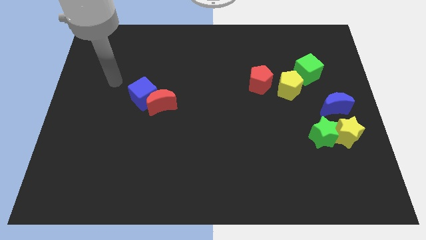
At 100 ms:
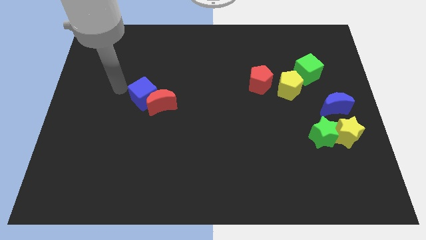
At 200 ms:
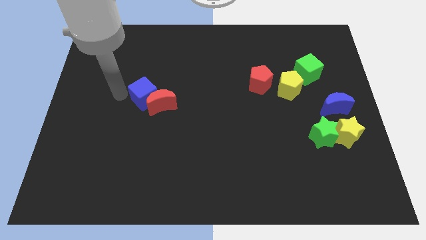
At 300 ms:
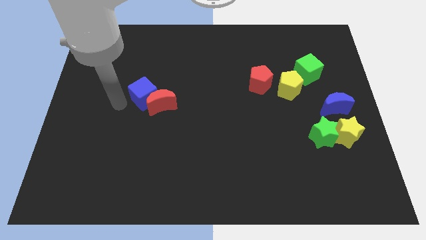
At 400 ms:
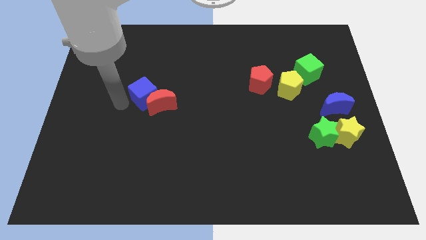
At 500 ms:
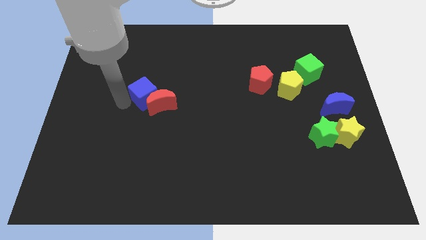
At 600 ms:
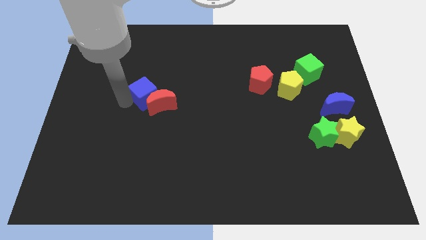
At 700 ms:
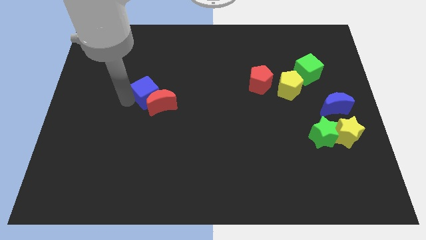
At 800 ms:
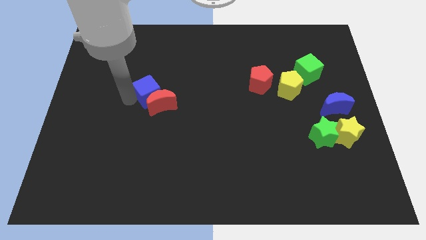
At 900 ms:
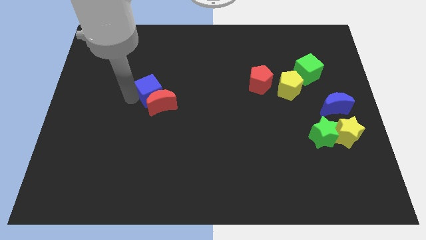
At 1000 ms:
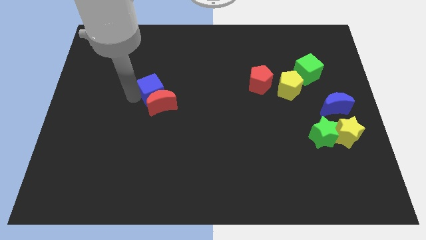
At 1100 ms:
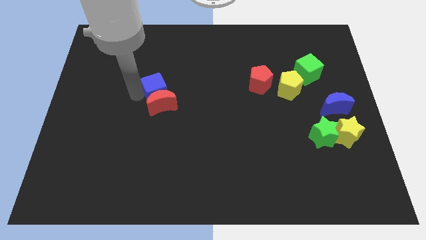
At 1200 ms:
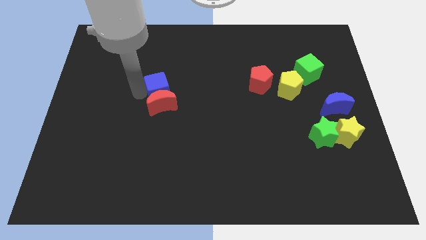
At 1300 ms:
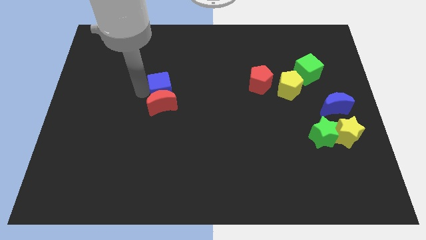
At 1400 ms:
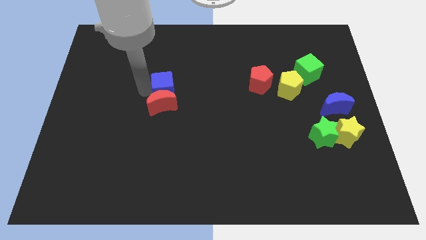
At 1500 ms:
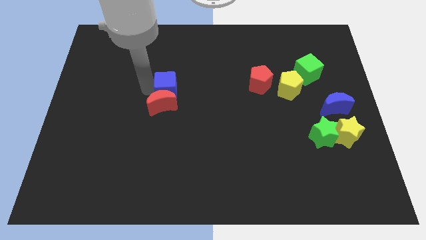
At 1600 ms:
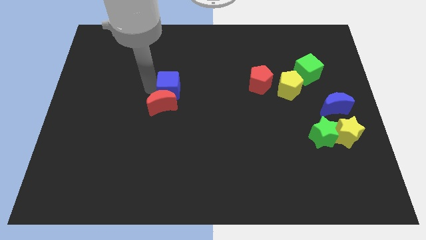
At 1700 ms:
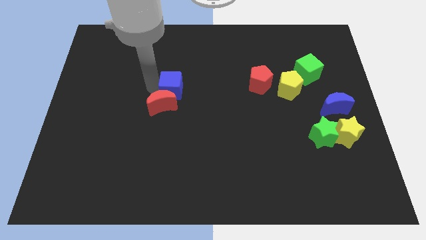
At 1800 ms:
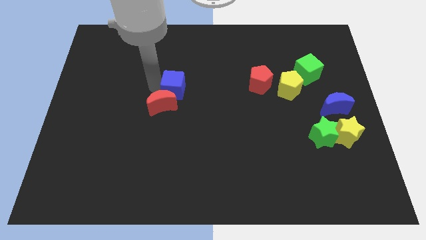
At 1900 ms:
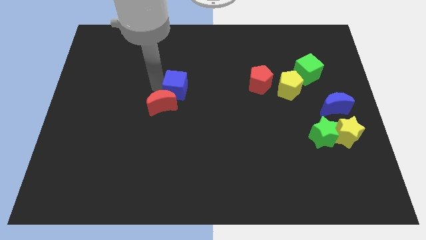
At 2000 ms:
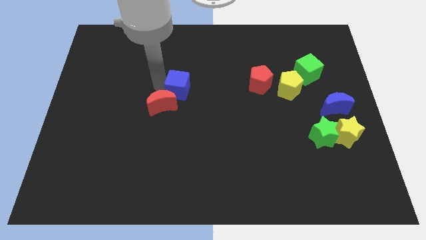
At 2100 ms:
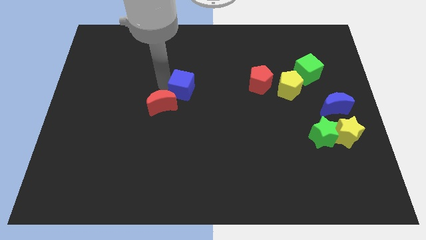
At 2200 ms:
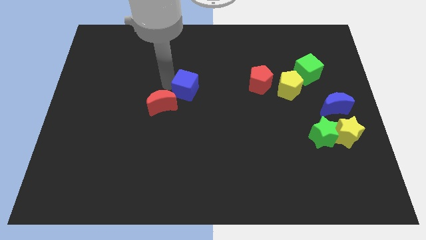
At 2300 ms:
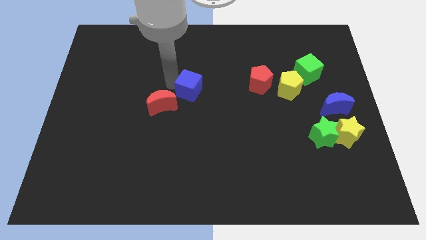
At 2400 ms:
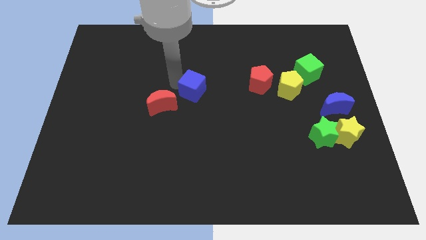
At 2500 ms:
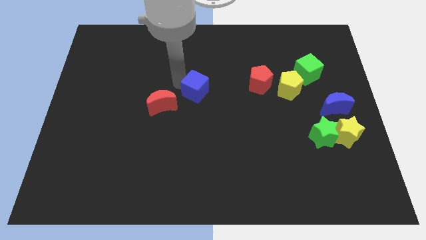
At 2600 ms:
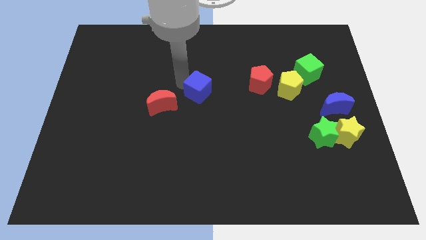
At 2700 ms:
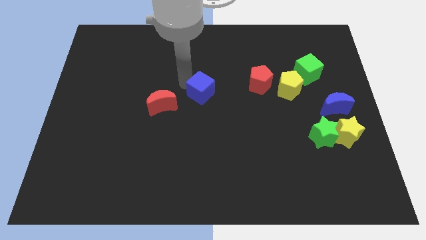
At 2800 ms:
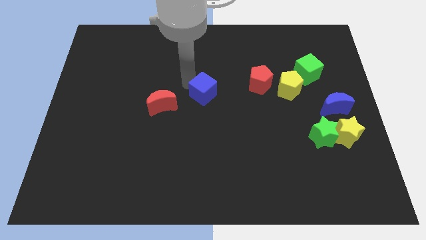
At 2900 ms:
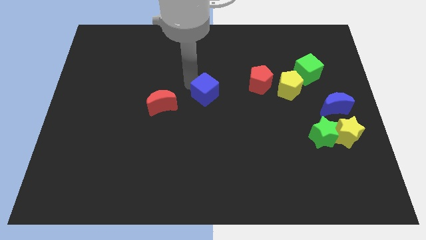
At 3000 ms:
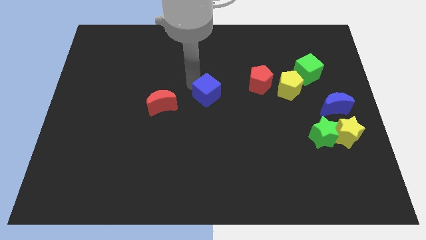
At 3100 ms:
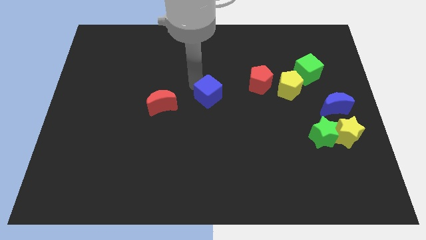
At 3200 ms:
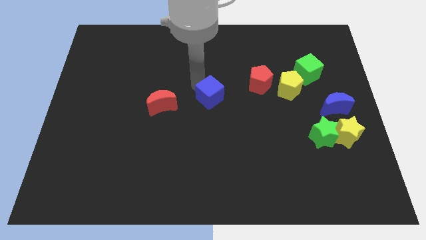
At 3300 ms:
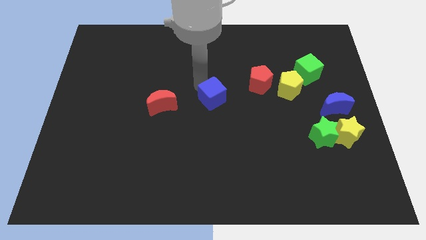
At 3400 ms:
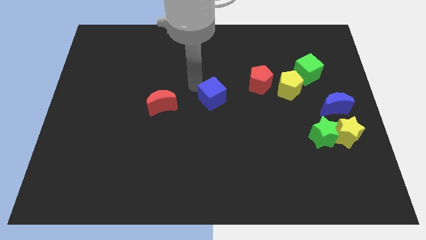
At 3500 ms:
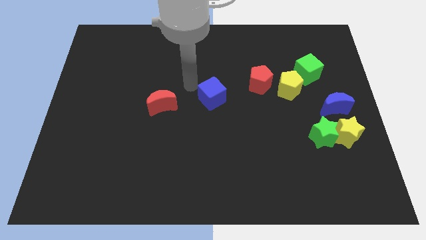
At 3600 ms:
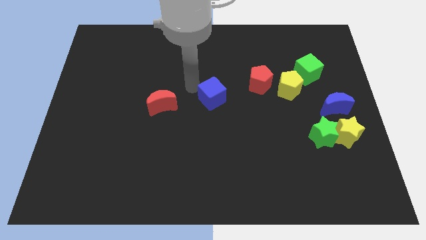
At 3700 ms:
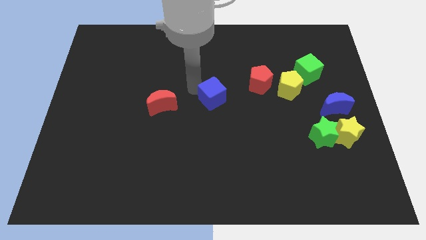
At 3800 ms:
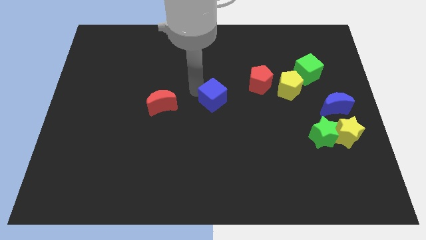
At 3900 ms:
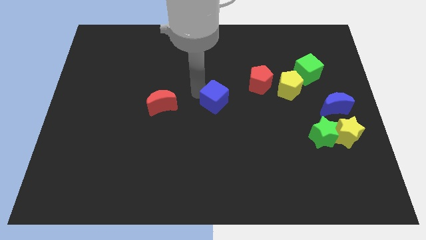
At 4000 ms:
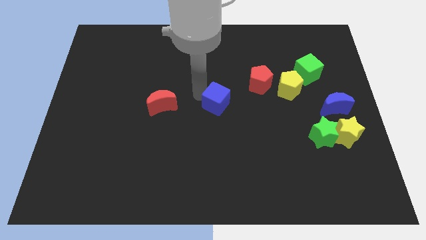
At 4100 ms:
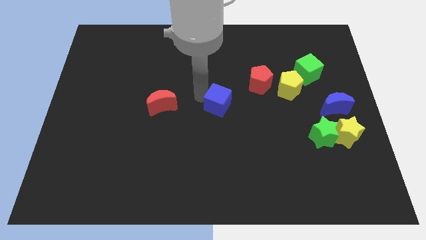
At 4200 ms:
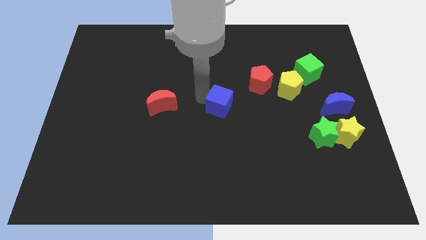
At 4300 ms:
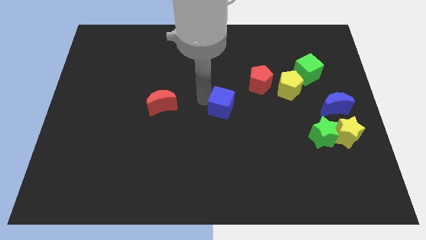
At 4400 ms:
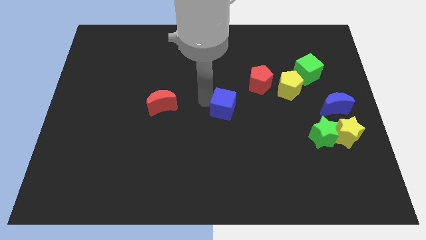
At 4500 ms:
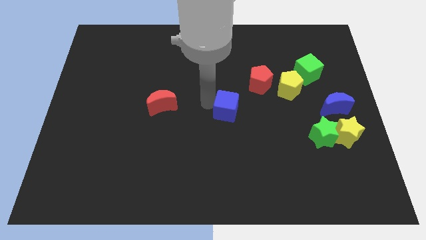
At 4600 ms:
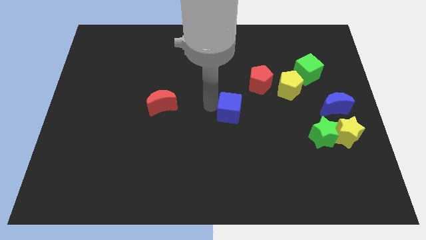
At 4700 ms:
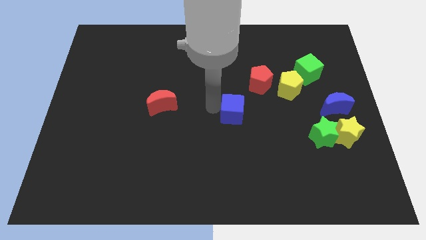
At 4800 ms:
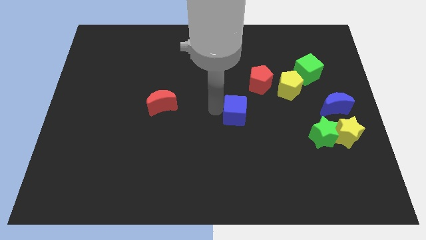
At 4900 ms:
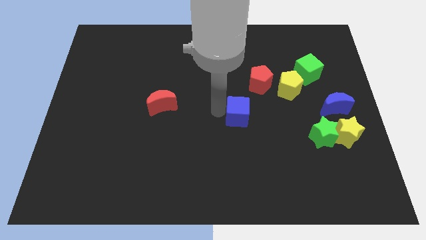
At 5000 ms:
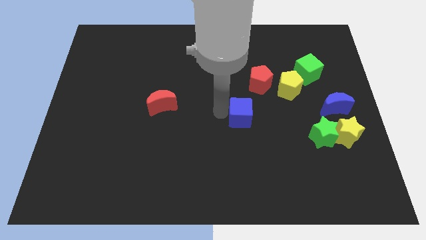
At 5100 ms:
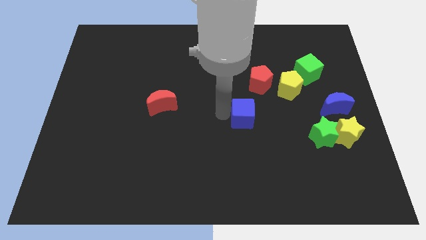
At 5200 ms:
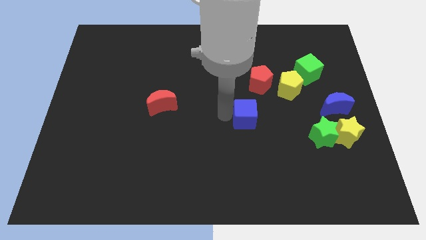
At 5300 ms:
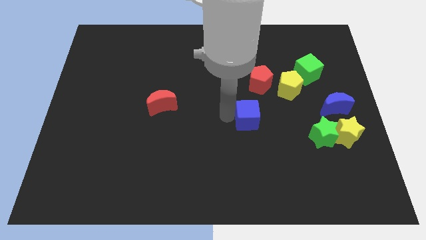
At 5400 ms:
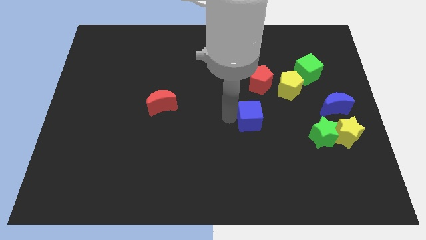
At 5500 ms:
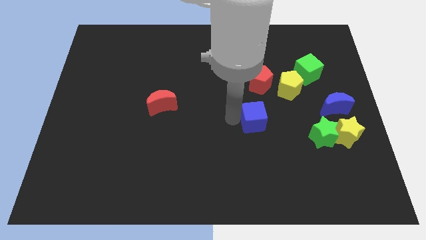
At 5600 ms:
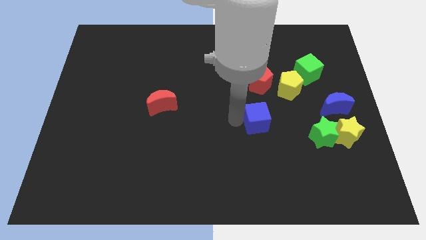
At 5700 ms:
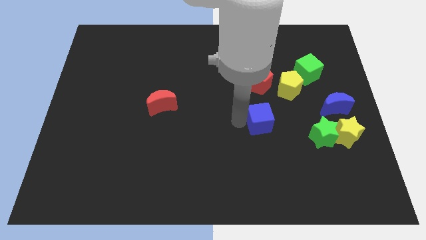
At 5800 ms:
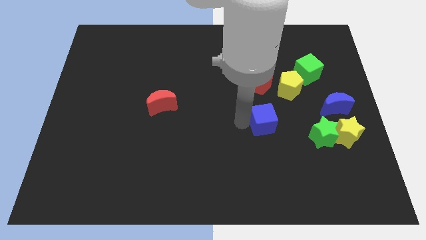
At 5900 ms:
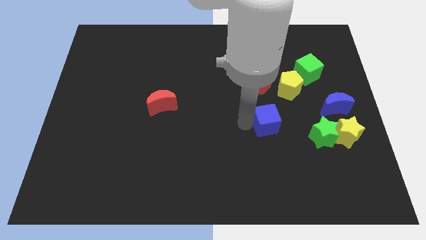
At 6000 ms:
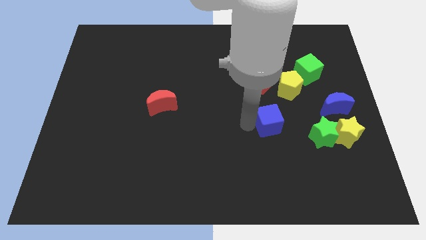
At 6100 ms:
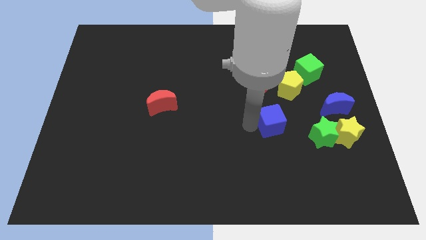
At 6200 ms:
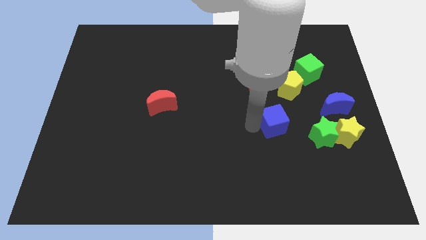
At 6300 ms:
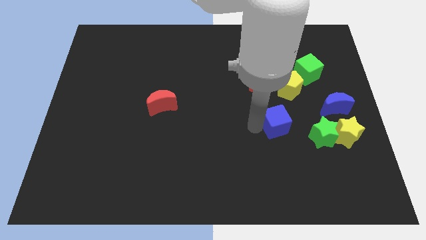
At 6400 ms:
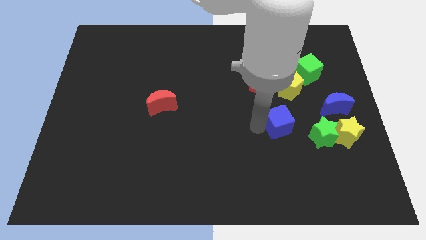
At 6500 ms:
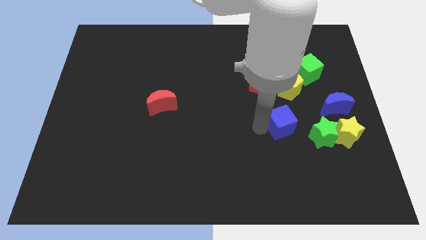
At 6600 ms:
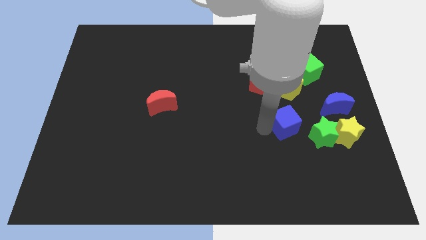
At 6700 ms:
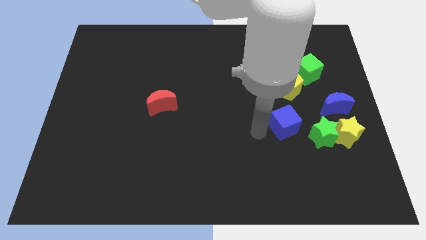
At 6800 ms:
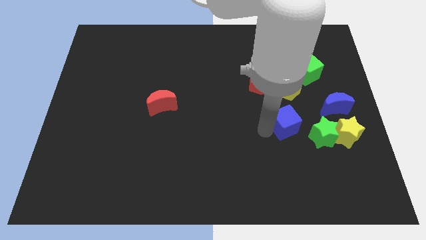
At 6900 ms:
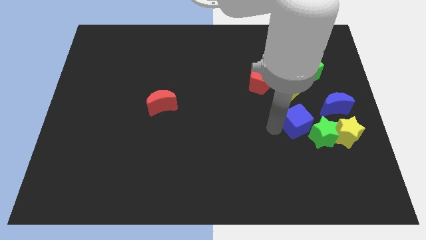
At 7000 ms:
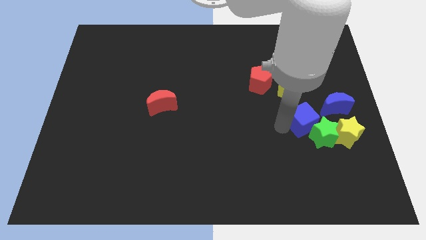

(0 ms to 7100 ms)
move the blue cube to the top left side of the yellow star

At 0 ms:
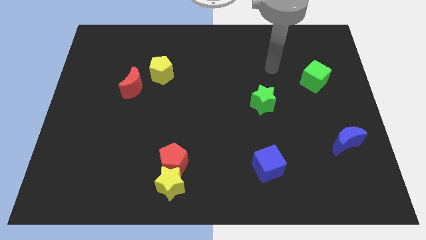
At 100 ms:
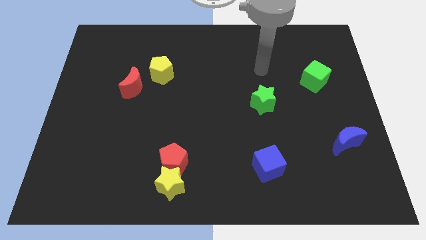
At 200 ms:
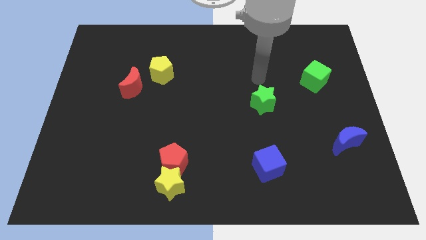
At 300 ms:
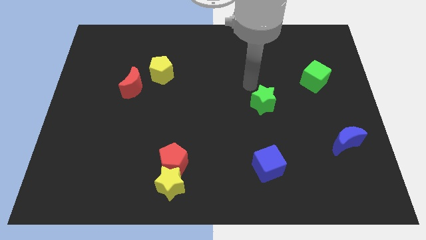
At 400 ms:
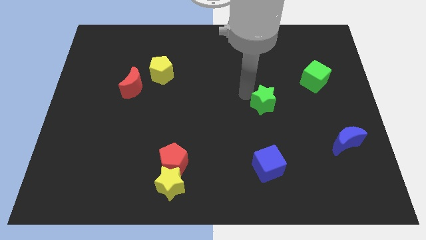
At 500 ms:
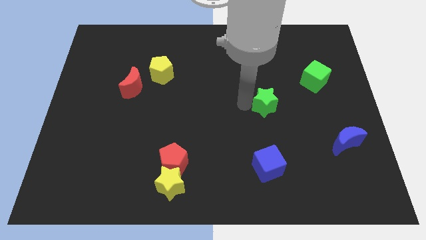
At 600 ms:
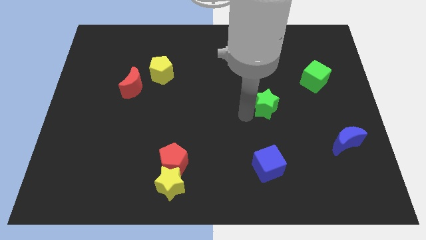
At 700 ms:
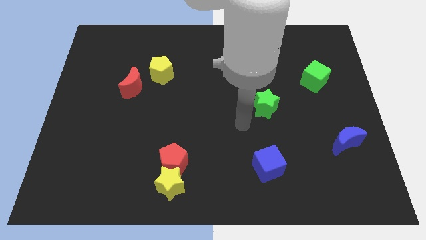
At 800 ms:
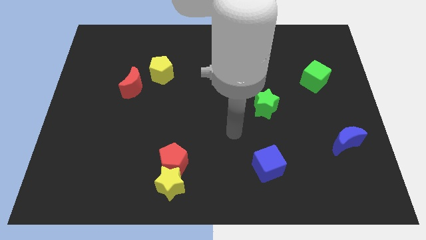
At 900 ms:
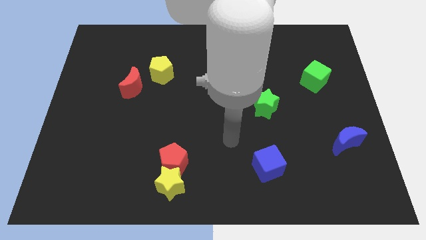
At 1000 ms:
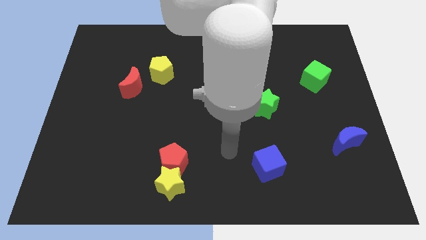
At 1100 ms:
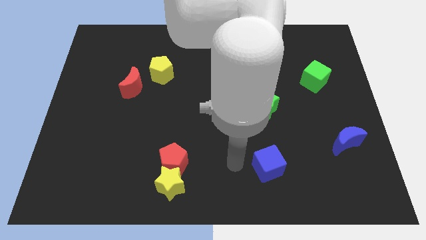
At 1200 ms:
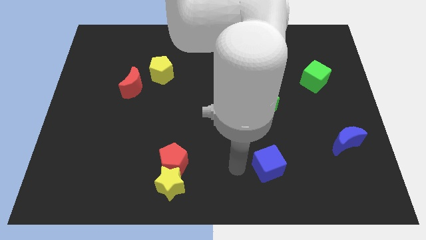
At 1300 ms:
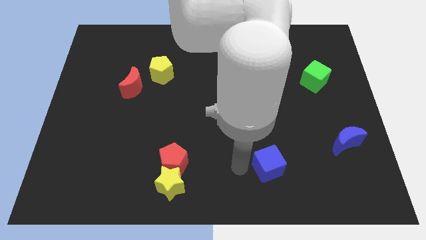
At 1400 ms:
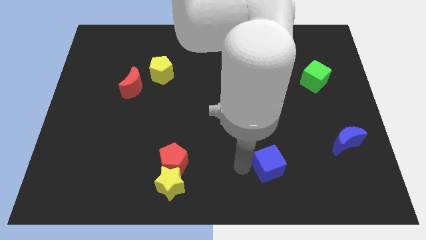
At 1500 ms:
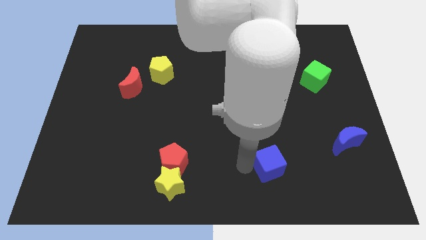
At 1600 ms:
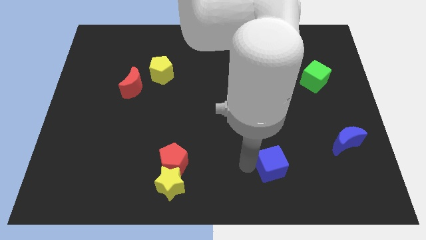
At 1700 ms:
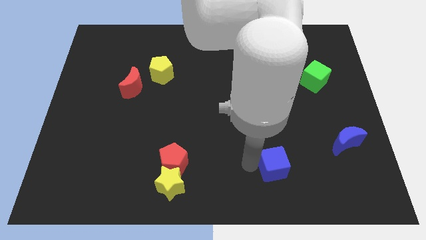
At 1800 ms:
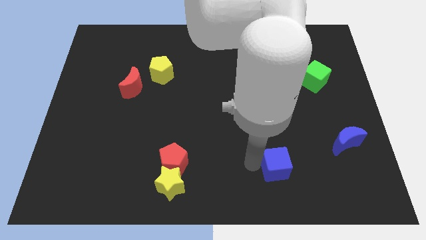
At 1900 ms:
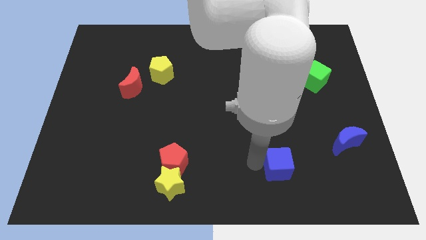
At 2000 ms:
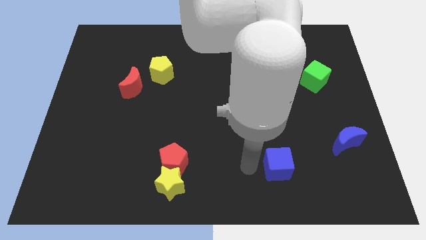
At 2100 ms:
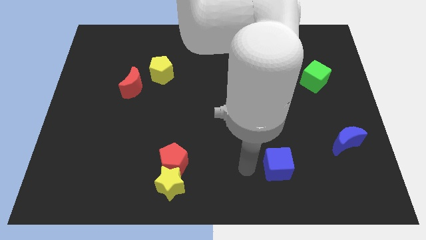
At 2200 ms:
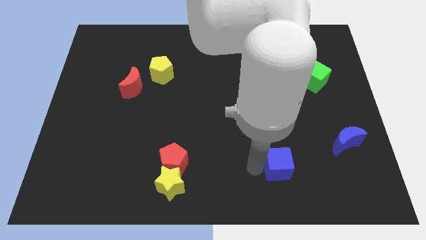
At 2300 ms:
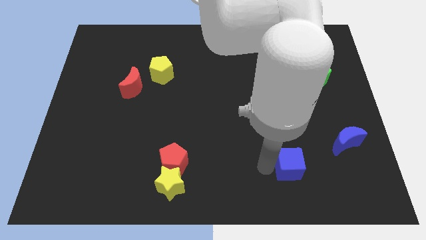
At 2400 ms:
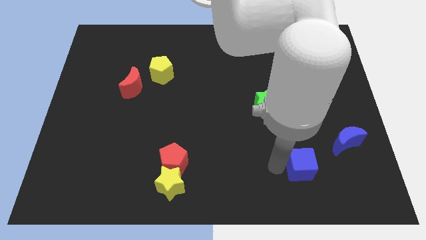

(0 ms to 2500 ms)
put the blue cube to the bottom left of the blue moon
